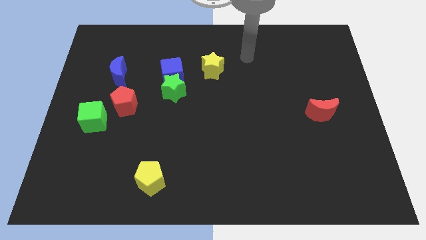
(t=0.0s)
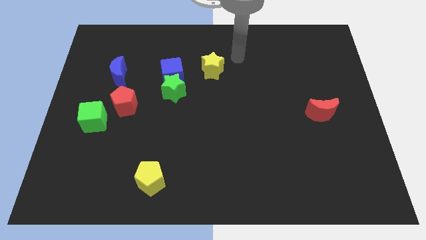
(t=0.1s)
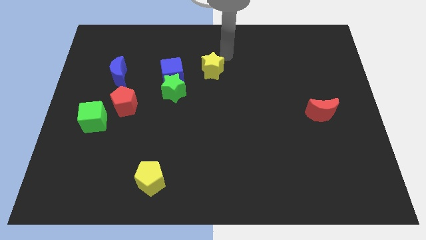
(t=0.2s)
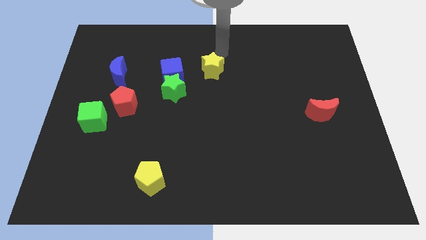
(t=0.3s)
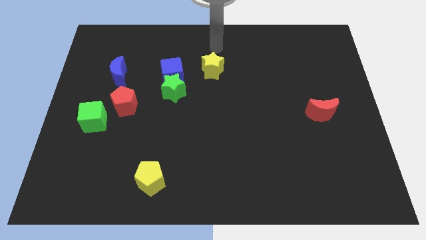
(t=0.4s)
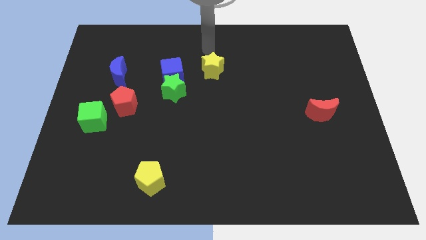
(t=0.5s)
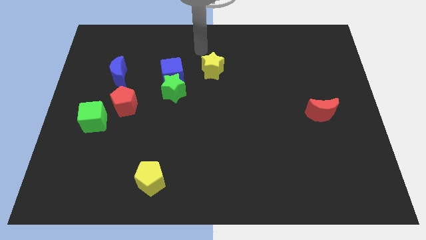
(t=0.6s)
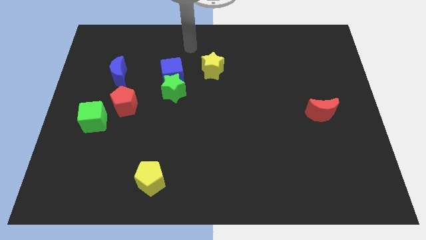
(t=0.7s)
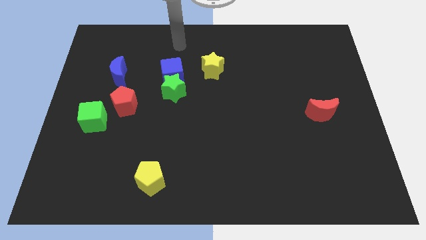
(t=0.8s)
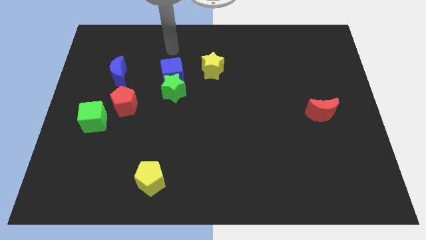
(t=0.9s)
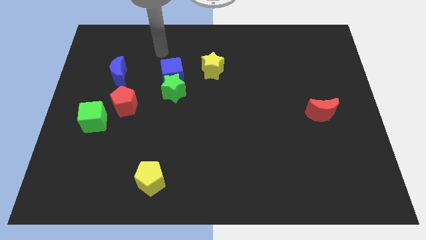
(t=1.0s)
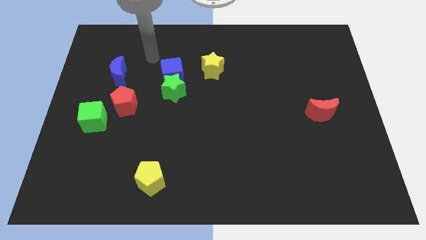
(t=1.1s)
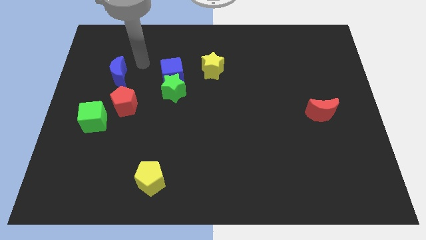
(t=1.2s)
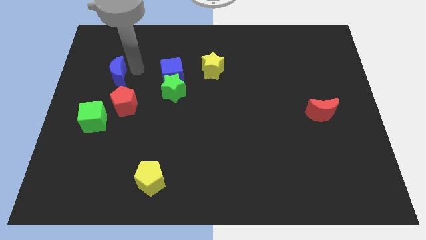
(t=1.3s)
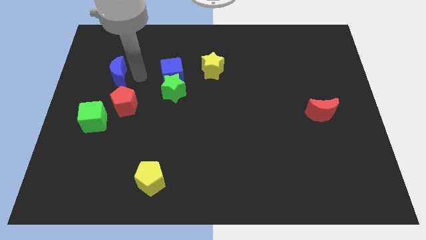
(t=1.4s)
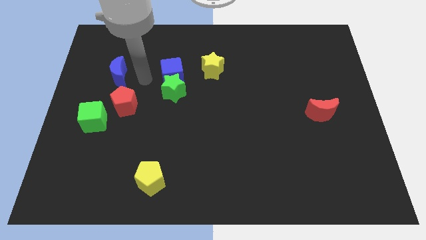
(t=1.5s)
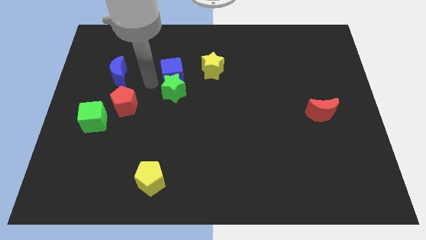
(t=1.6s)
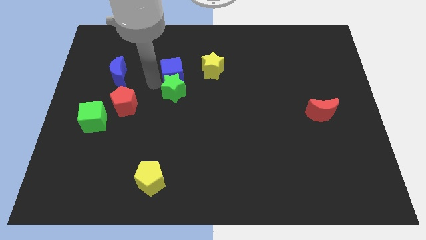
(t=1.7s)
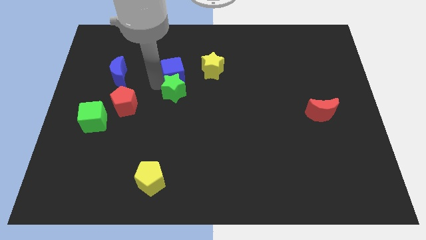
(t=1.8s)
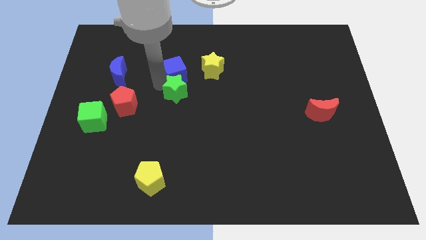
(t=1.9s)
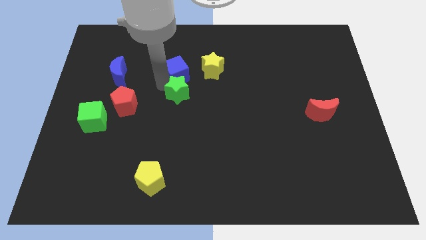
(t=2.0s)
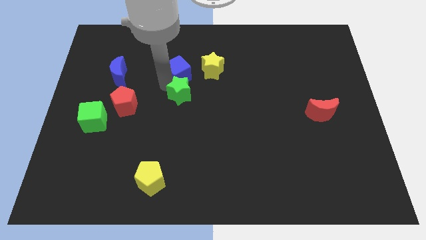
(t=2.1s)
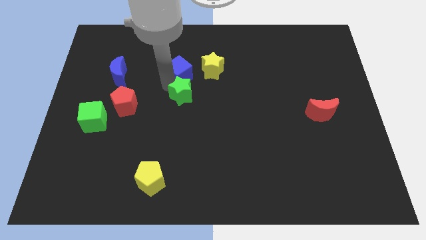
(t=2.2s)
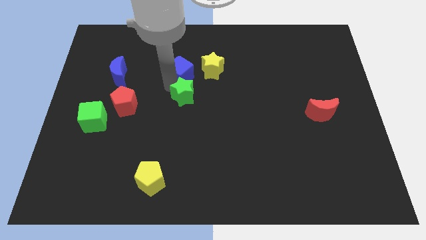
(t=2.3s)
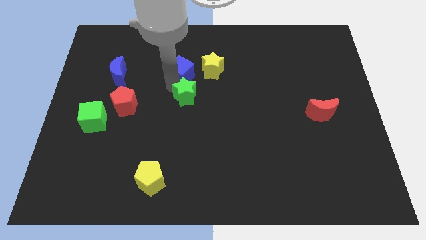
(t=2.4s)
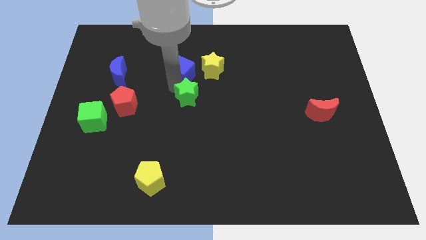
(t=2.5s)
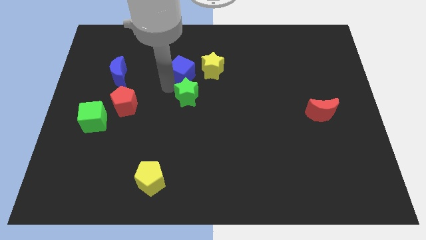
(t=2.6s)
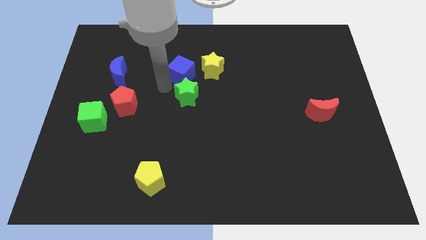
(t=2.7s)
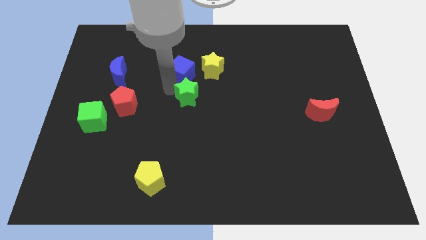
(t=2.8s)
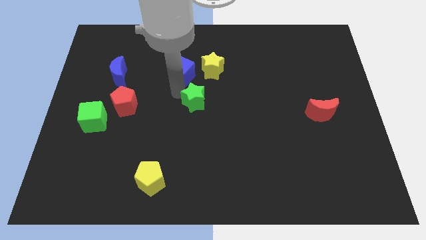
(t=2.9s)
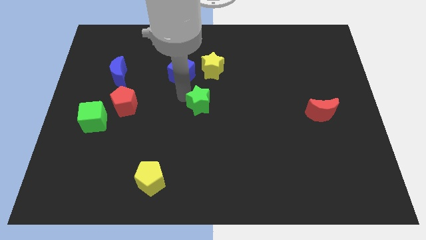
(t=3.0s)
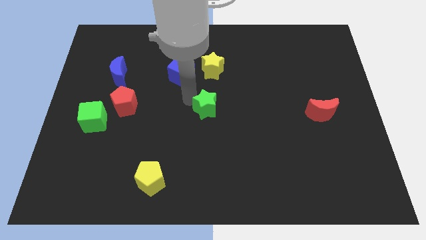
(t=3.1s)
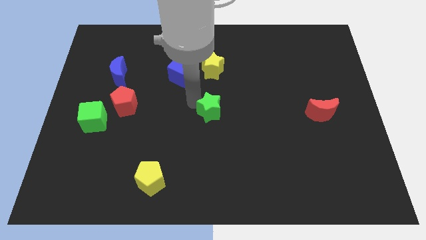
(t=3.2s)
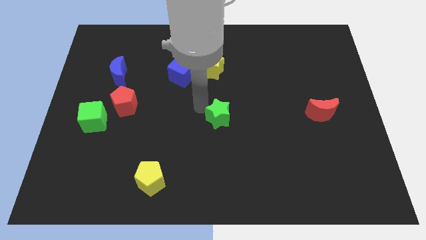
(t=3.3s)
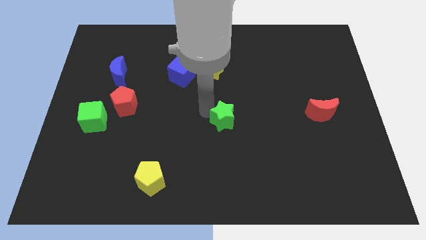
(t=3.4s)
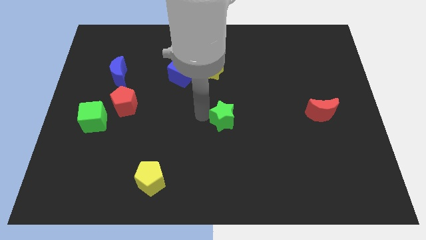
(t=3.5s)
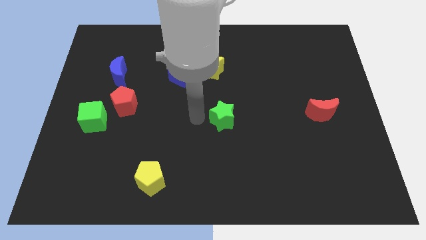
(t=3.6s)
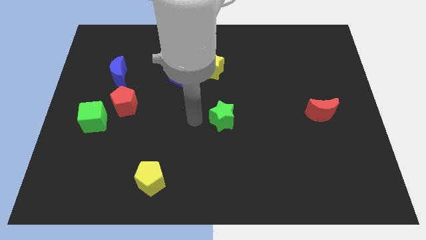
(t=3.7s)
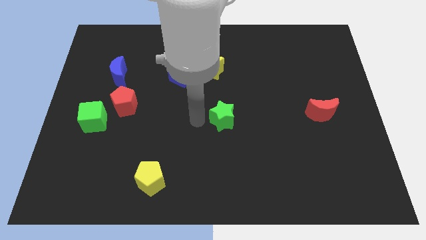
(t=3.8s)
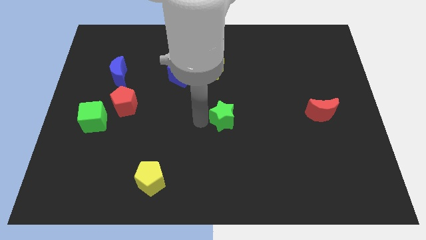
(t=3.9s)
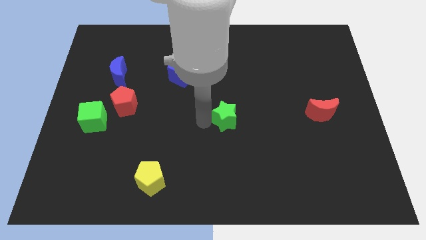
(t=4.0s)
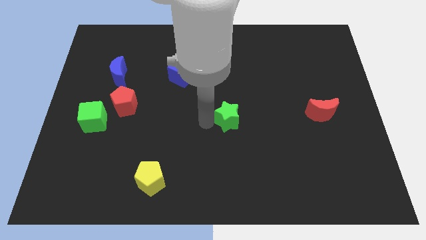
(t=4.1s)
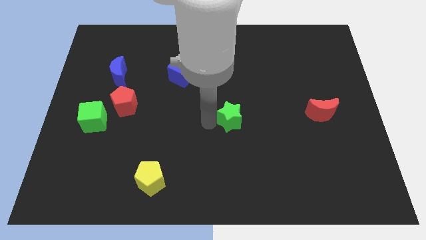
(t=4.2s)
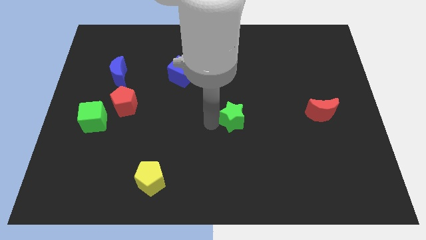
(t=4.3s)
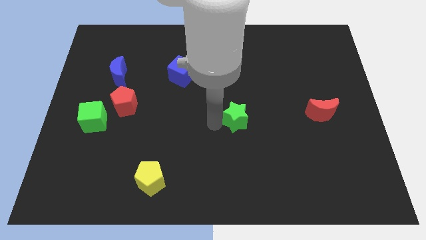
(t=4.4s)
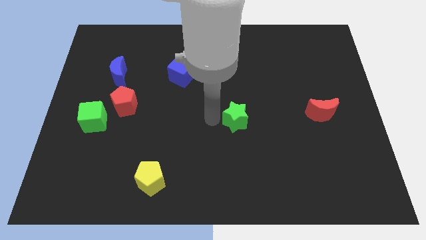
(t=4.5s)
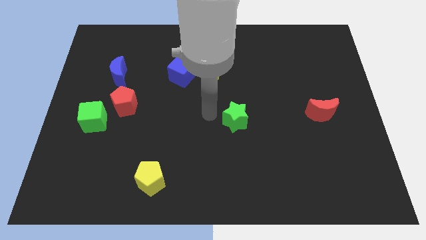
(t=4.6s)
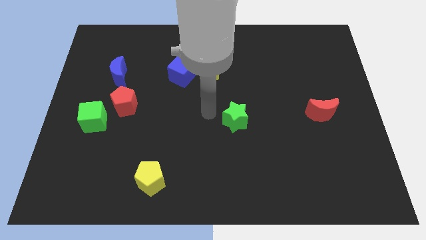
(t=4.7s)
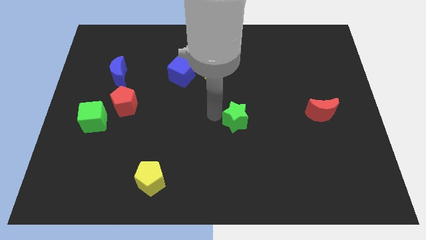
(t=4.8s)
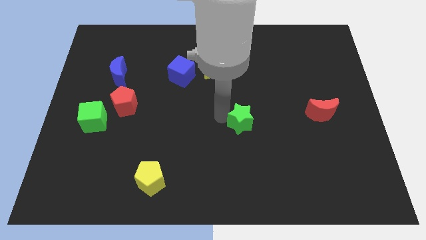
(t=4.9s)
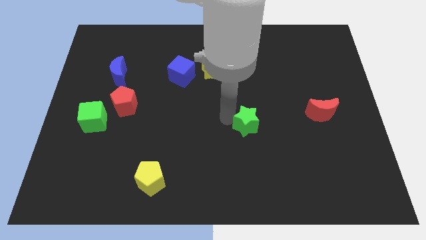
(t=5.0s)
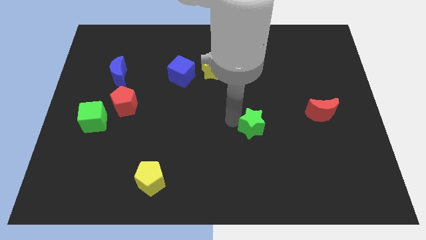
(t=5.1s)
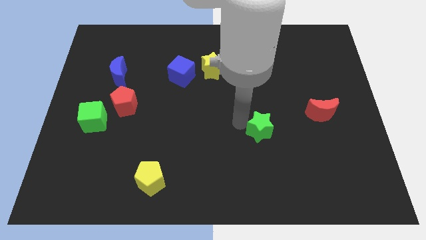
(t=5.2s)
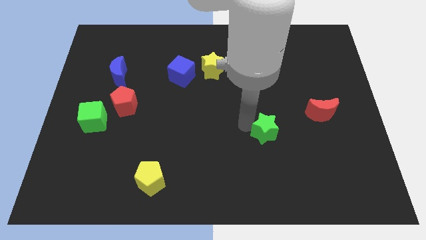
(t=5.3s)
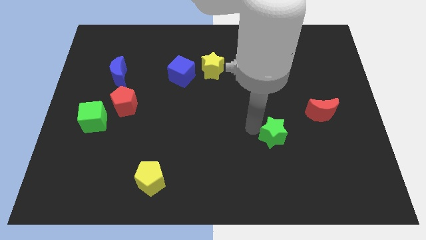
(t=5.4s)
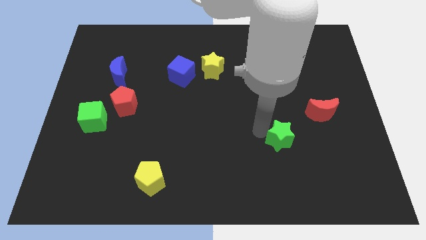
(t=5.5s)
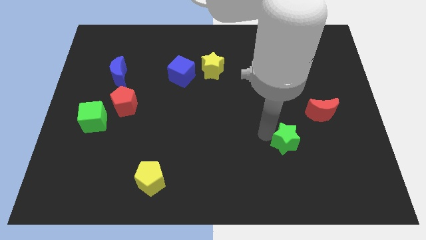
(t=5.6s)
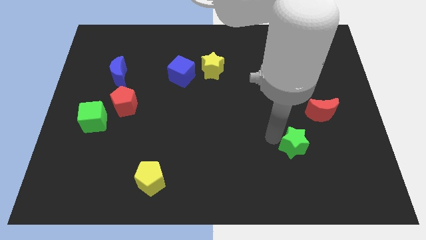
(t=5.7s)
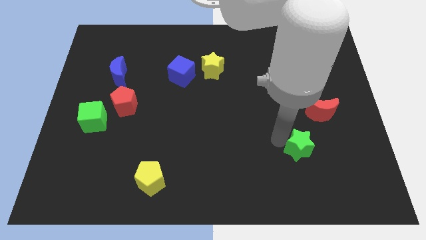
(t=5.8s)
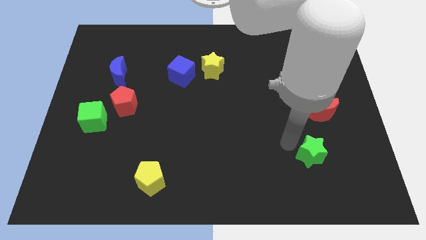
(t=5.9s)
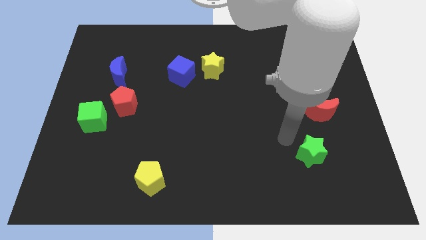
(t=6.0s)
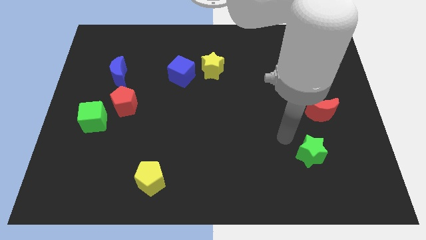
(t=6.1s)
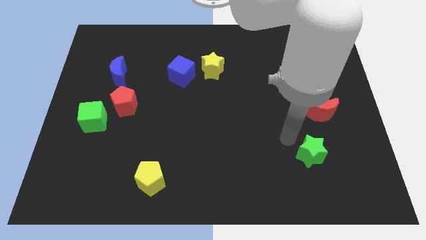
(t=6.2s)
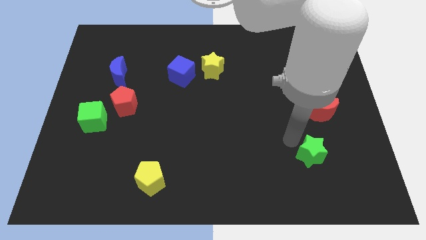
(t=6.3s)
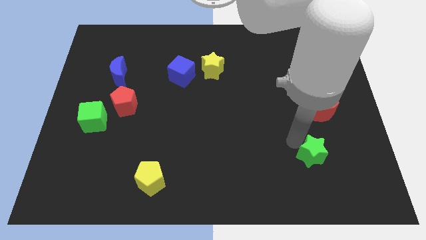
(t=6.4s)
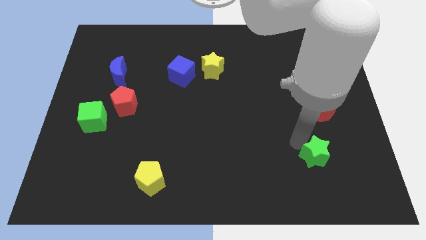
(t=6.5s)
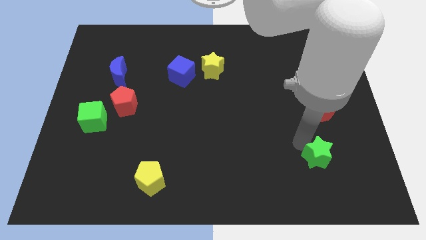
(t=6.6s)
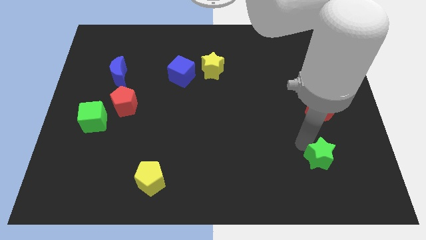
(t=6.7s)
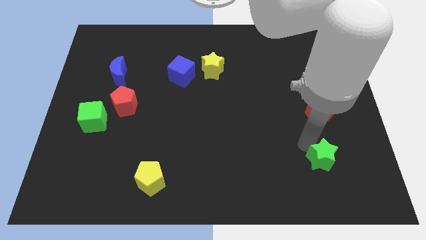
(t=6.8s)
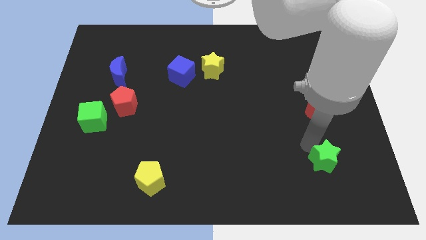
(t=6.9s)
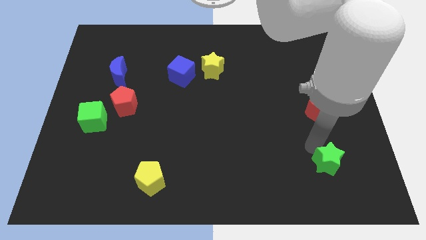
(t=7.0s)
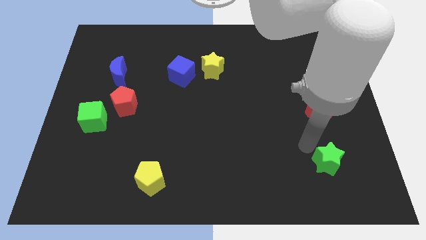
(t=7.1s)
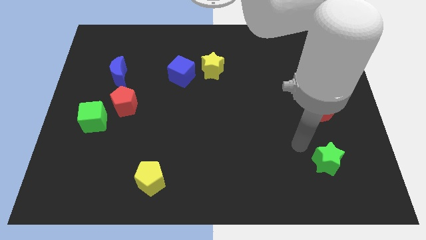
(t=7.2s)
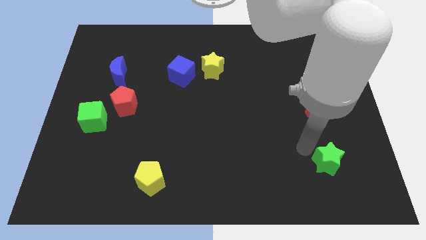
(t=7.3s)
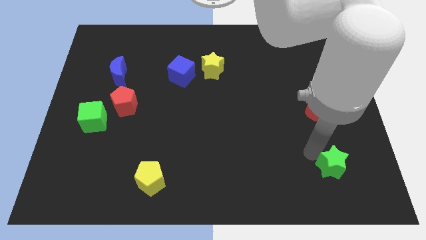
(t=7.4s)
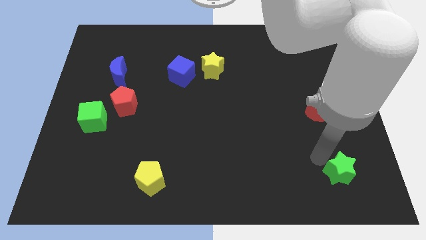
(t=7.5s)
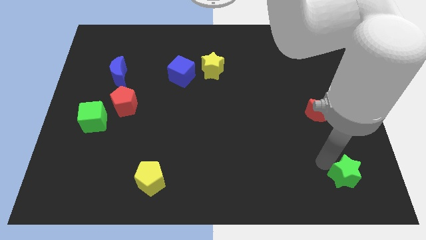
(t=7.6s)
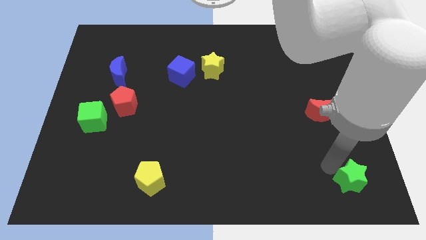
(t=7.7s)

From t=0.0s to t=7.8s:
slide the green star to the bottom right of the board
